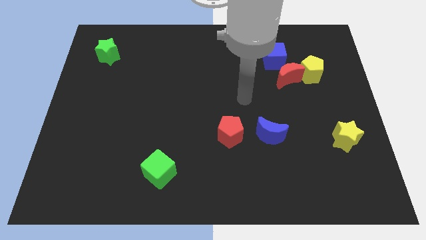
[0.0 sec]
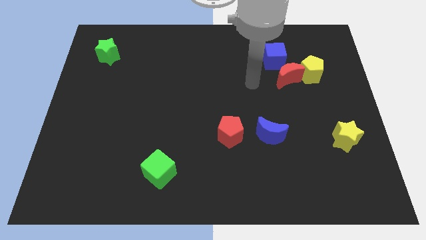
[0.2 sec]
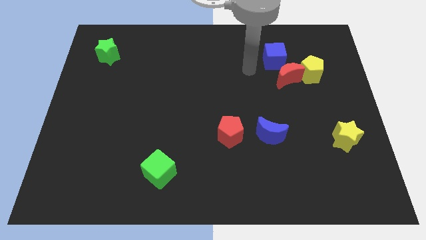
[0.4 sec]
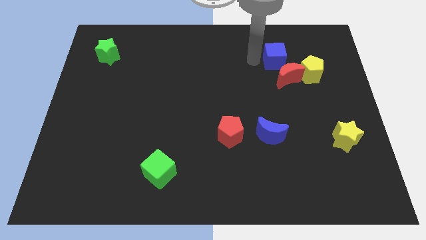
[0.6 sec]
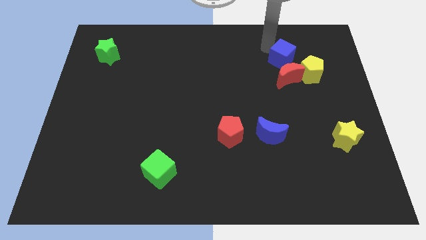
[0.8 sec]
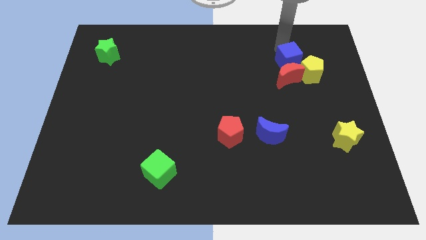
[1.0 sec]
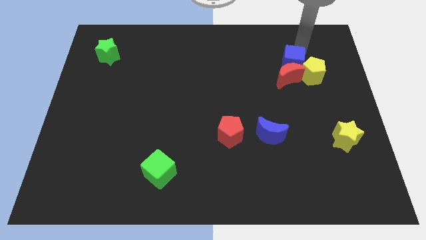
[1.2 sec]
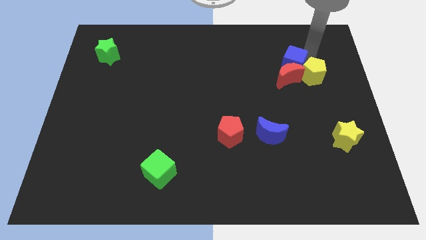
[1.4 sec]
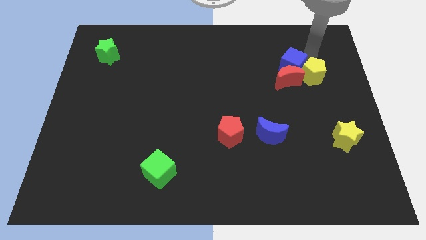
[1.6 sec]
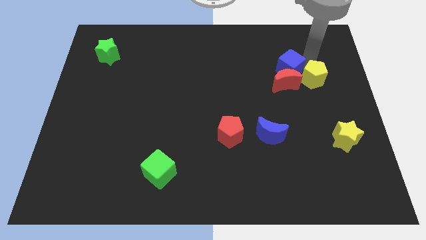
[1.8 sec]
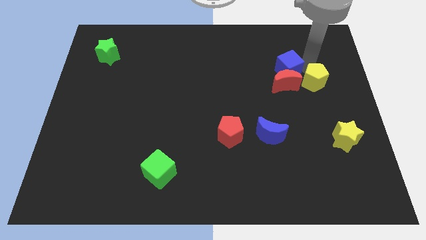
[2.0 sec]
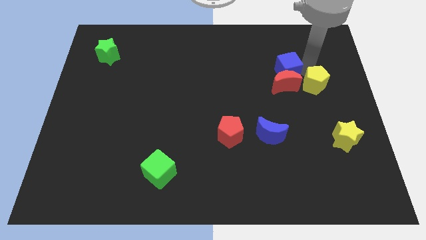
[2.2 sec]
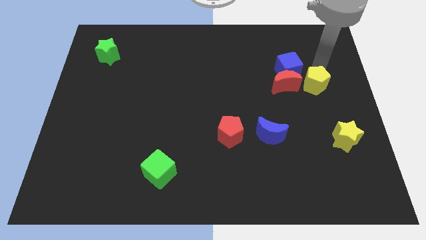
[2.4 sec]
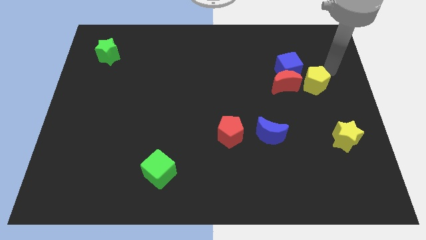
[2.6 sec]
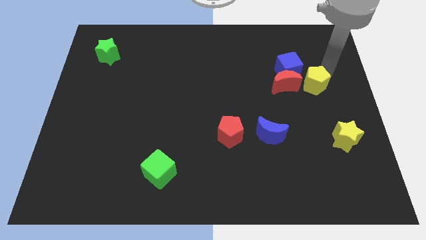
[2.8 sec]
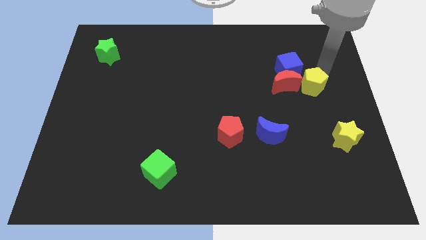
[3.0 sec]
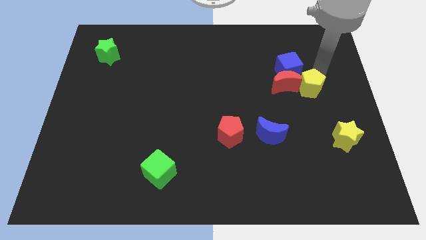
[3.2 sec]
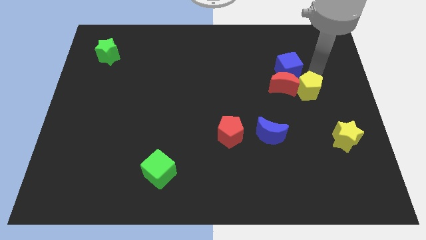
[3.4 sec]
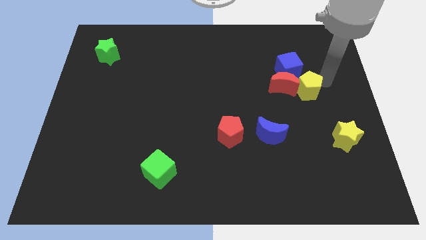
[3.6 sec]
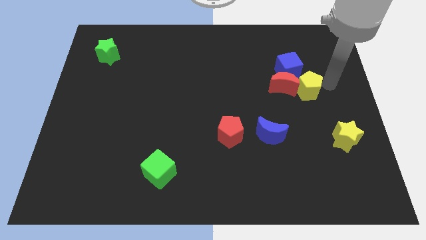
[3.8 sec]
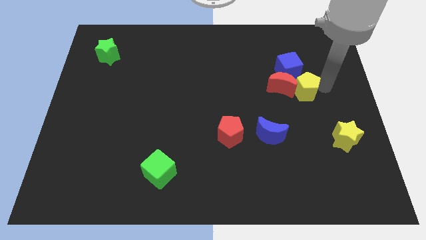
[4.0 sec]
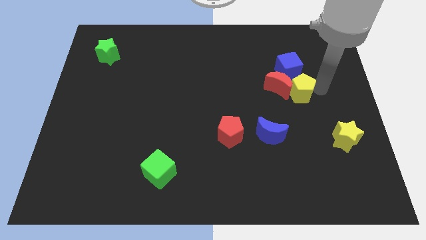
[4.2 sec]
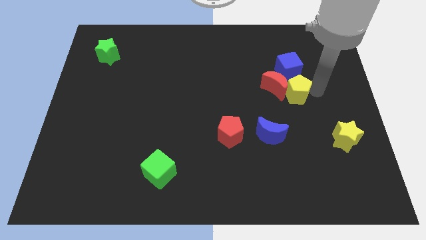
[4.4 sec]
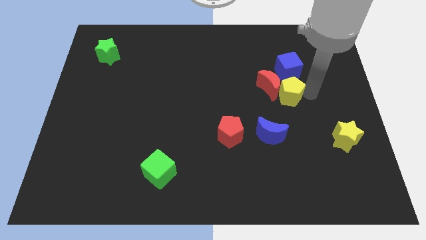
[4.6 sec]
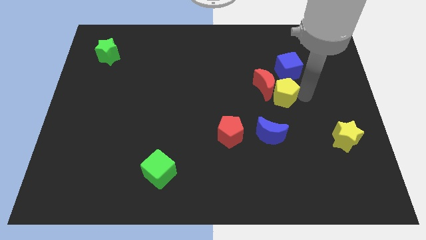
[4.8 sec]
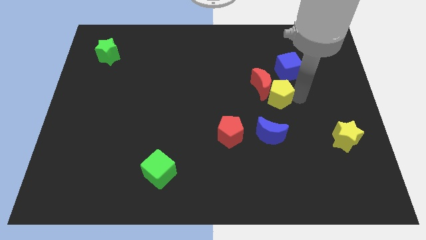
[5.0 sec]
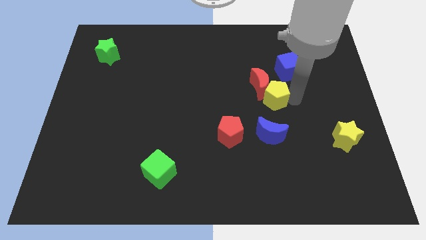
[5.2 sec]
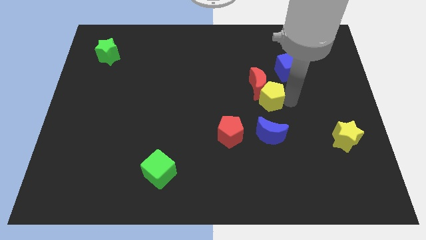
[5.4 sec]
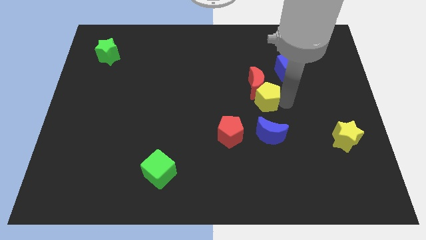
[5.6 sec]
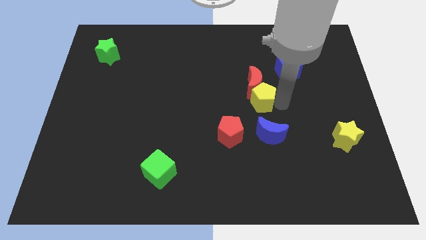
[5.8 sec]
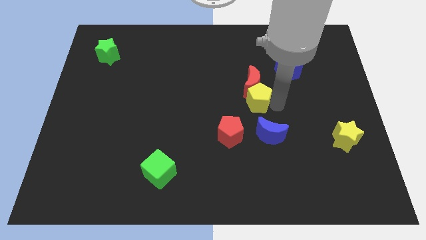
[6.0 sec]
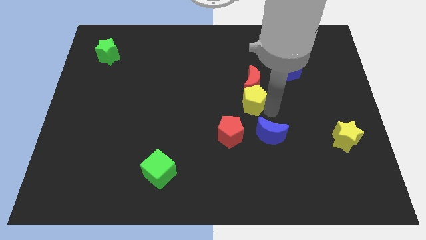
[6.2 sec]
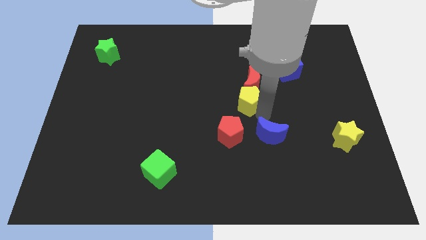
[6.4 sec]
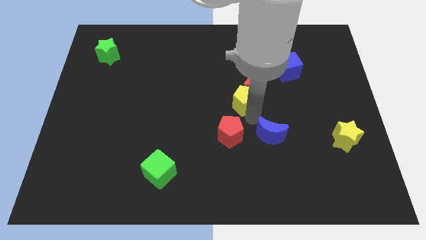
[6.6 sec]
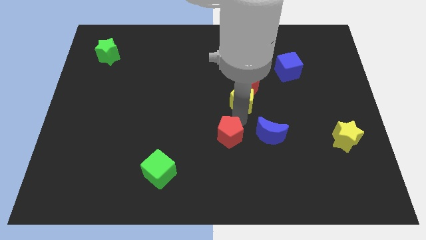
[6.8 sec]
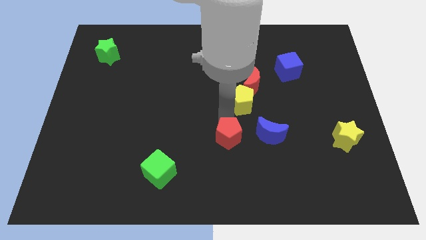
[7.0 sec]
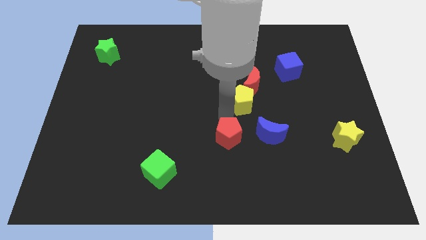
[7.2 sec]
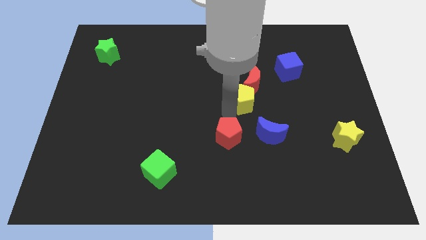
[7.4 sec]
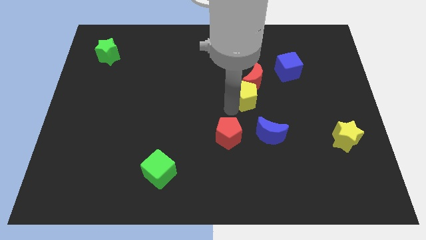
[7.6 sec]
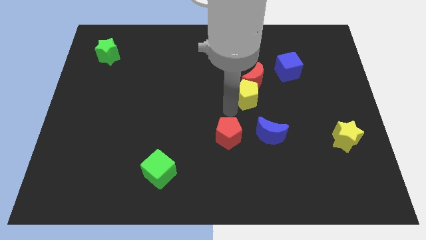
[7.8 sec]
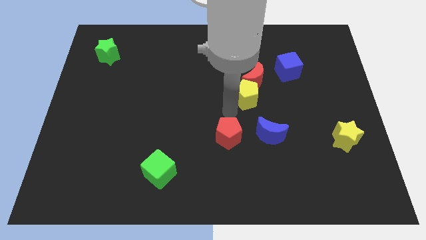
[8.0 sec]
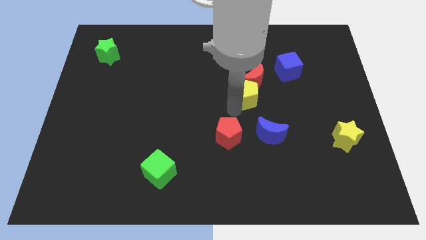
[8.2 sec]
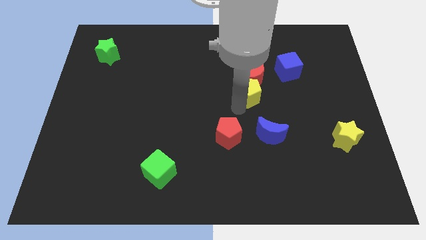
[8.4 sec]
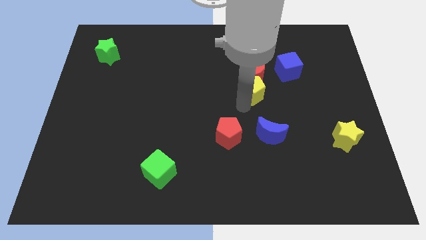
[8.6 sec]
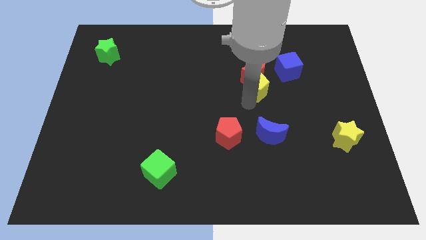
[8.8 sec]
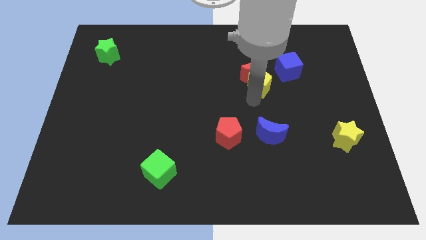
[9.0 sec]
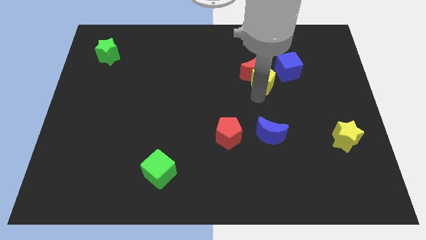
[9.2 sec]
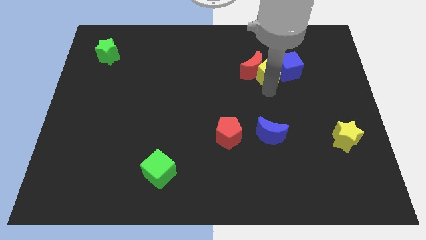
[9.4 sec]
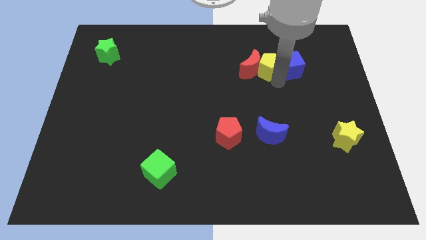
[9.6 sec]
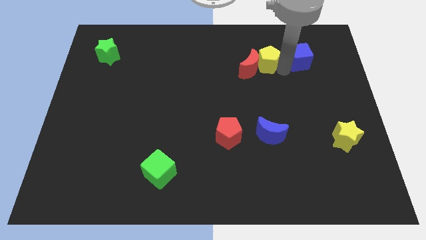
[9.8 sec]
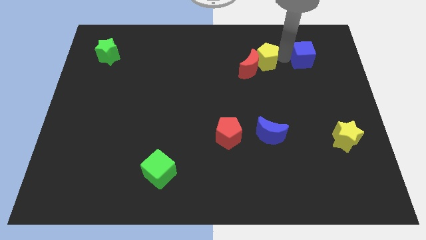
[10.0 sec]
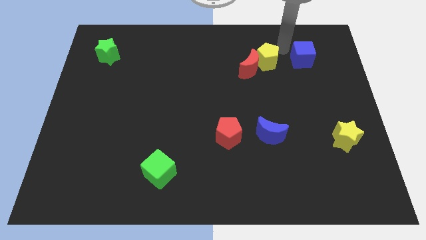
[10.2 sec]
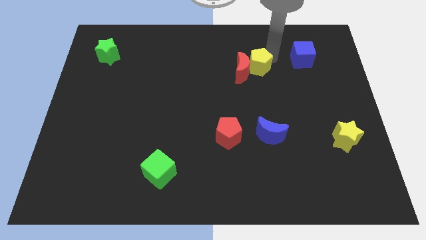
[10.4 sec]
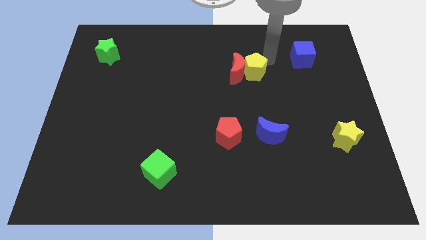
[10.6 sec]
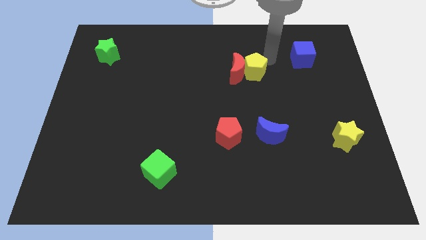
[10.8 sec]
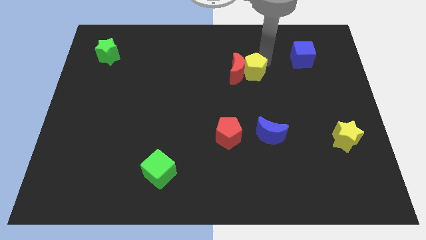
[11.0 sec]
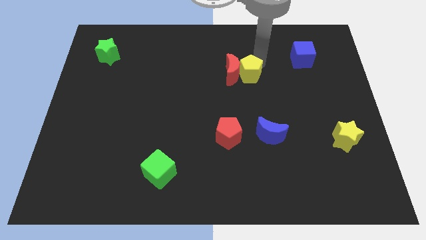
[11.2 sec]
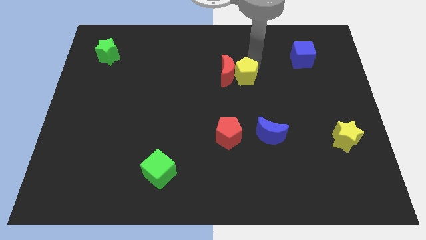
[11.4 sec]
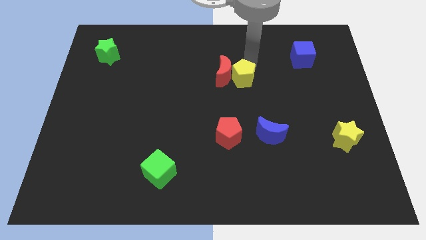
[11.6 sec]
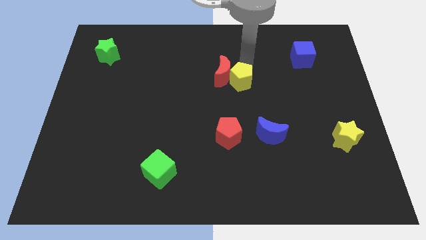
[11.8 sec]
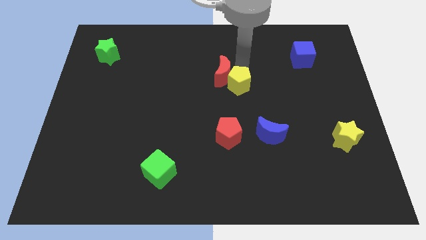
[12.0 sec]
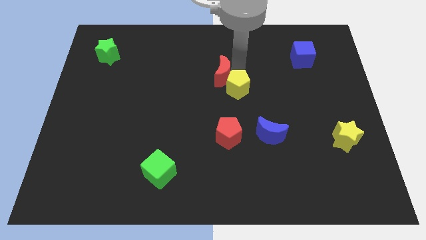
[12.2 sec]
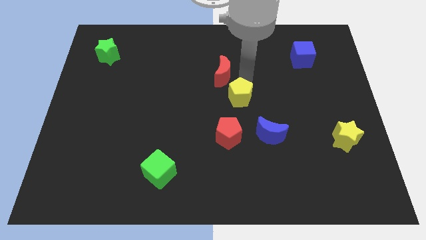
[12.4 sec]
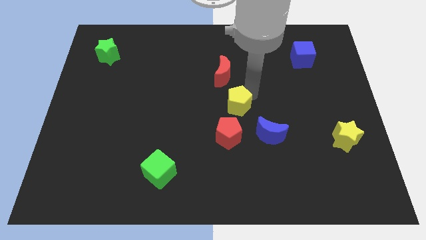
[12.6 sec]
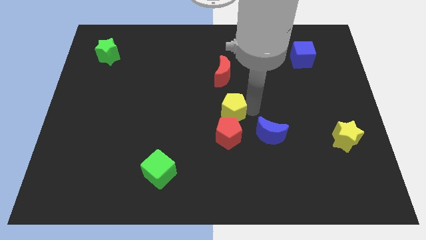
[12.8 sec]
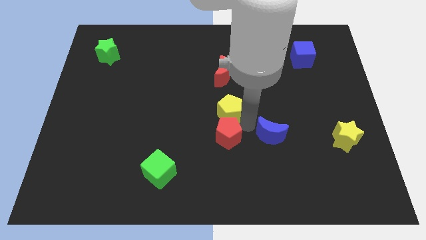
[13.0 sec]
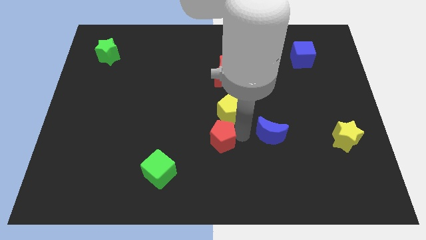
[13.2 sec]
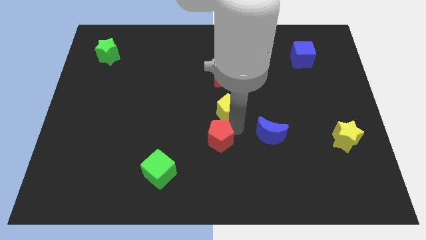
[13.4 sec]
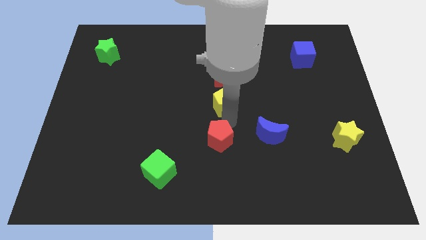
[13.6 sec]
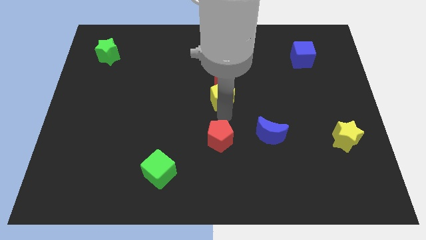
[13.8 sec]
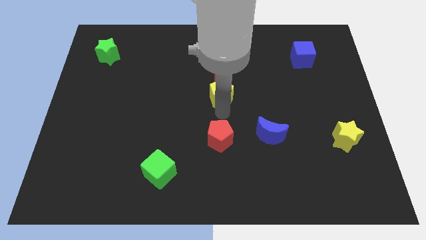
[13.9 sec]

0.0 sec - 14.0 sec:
slide the yellow pentagon to the left

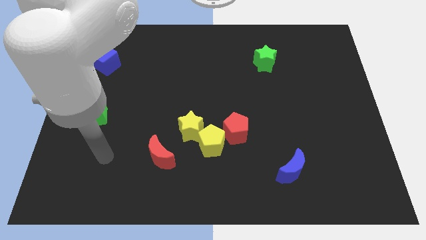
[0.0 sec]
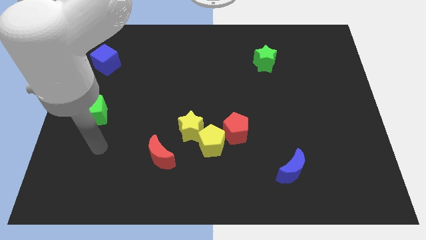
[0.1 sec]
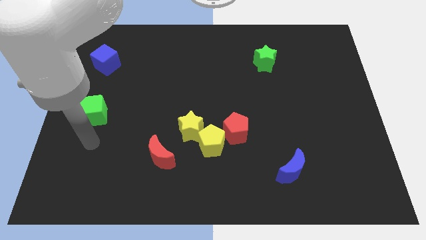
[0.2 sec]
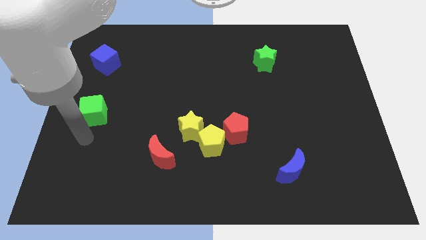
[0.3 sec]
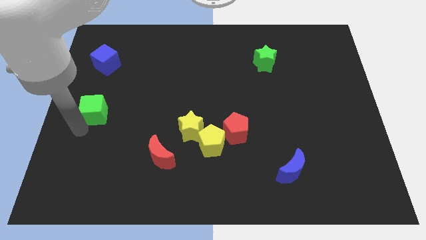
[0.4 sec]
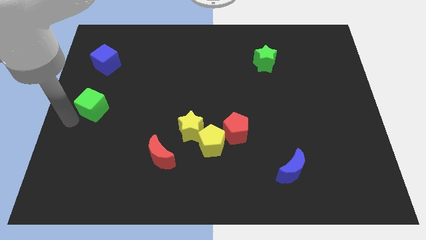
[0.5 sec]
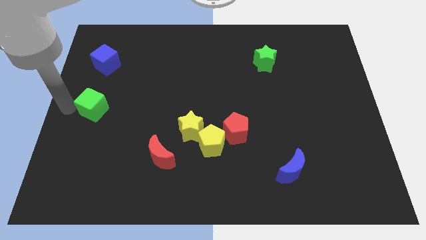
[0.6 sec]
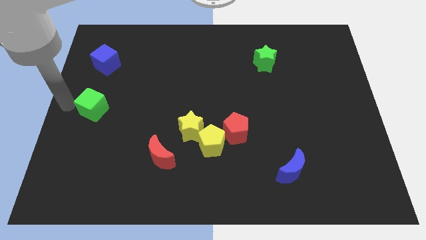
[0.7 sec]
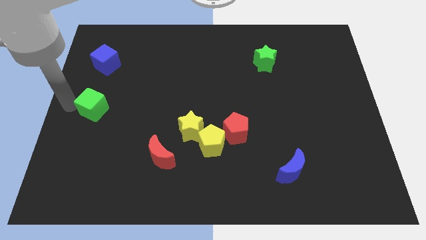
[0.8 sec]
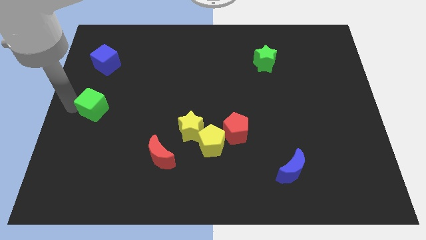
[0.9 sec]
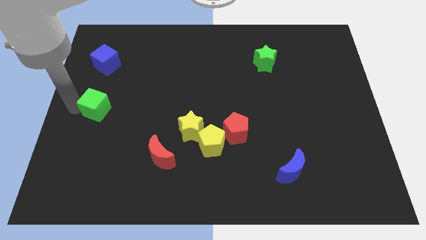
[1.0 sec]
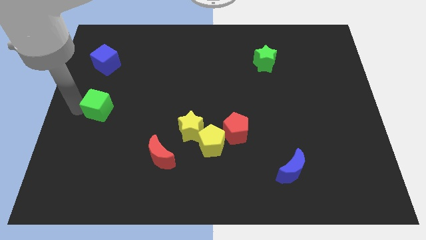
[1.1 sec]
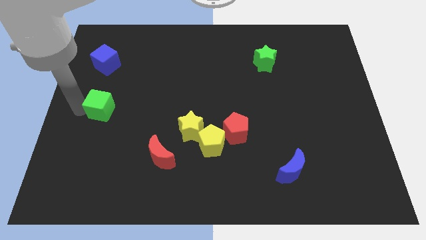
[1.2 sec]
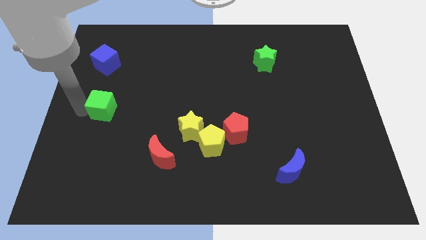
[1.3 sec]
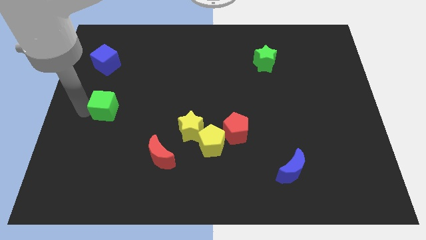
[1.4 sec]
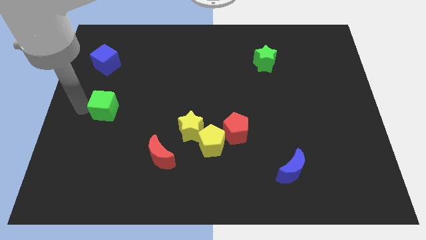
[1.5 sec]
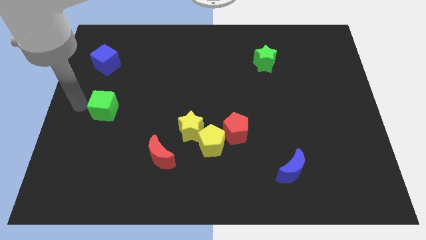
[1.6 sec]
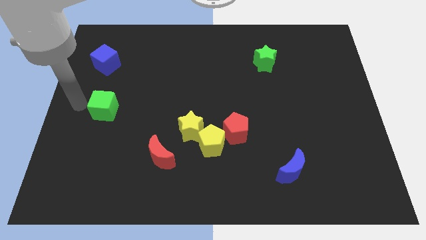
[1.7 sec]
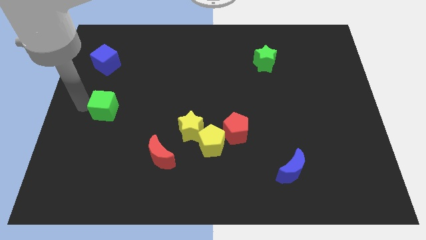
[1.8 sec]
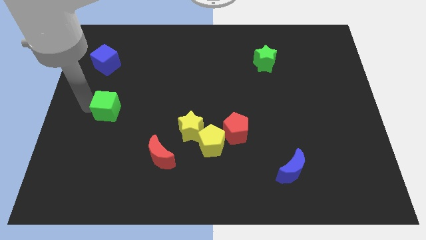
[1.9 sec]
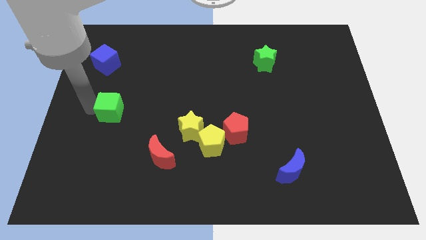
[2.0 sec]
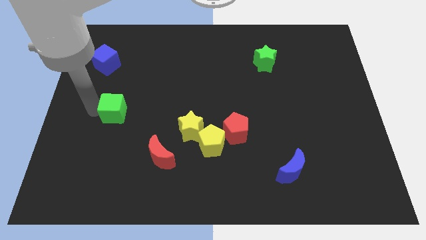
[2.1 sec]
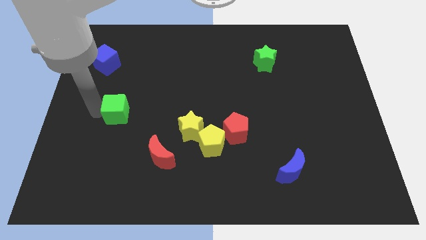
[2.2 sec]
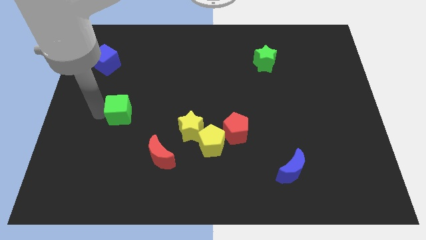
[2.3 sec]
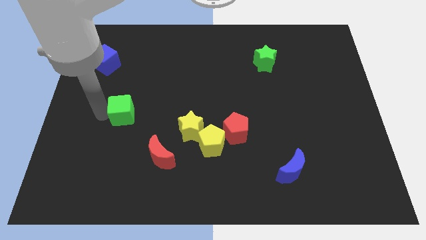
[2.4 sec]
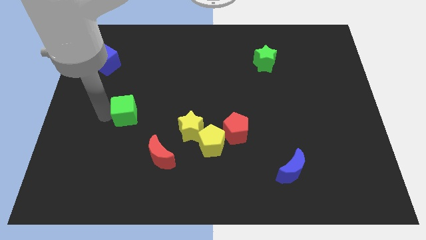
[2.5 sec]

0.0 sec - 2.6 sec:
slide the green cube right a little
